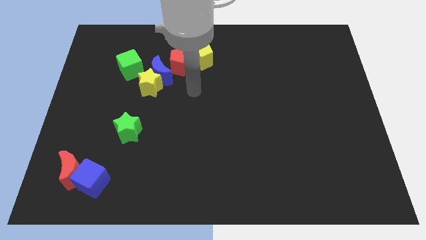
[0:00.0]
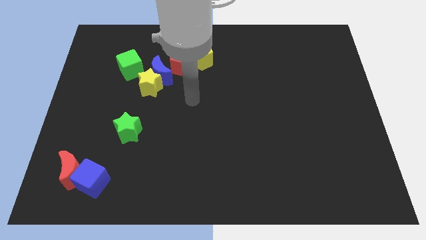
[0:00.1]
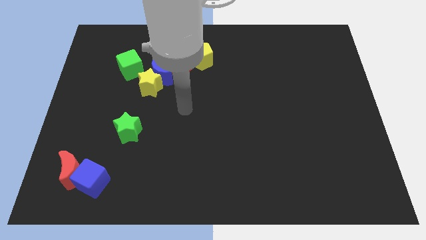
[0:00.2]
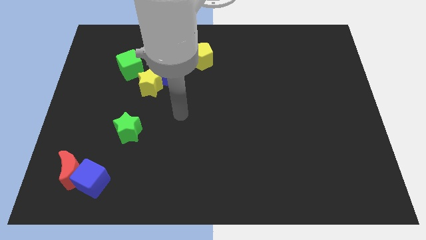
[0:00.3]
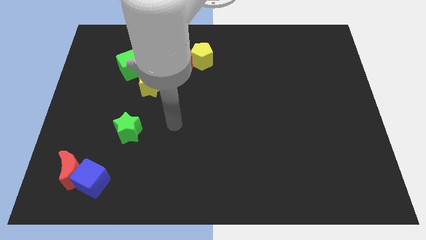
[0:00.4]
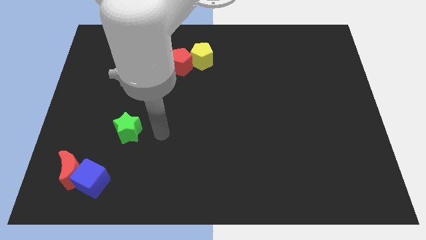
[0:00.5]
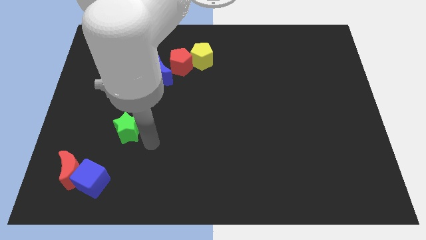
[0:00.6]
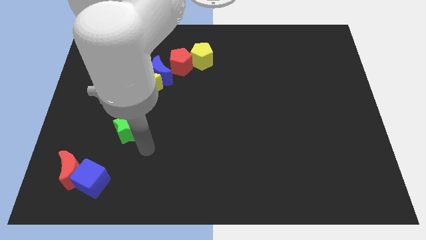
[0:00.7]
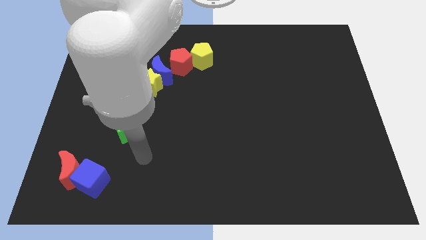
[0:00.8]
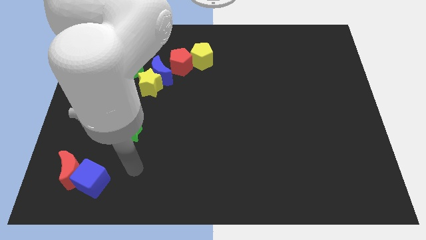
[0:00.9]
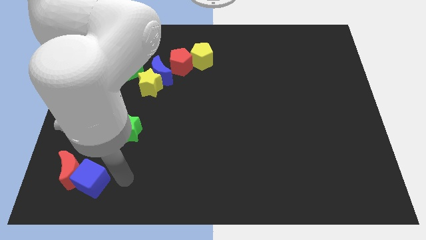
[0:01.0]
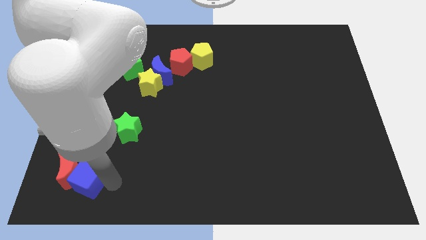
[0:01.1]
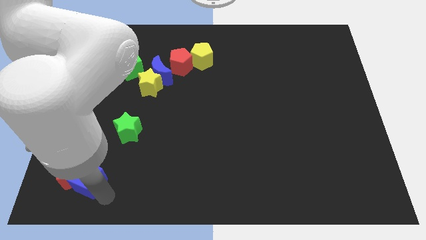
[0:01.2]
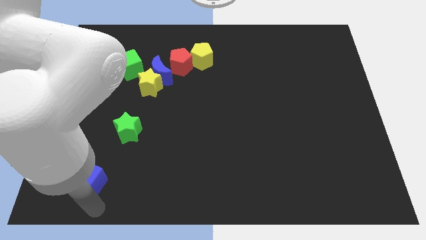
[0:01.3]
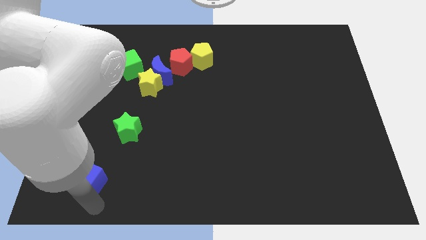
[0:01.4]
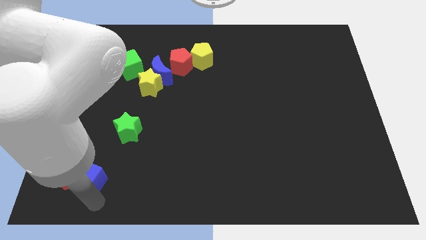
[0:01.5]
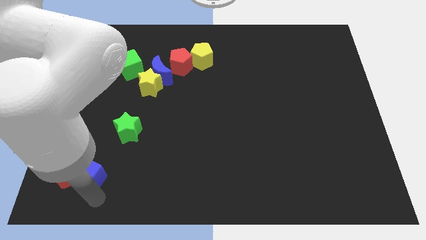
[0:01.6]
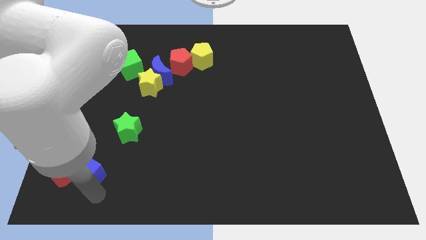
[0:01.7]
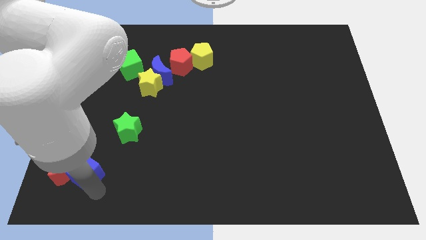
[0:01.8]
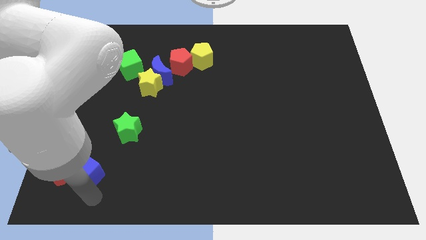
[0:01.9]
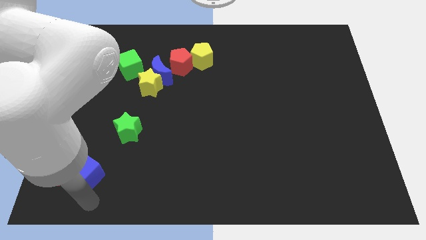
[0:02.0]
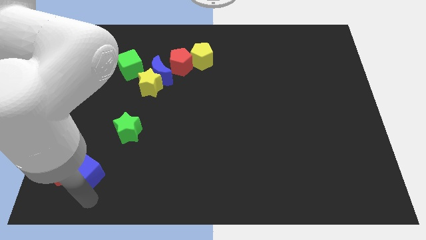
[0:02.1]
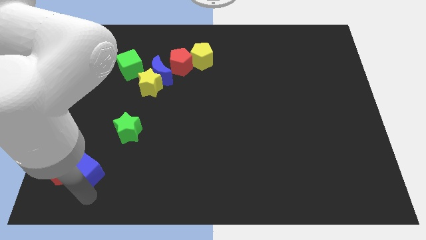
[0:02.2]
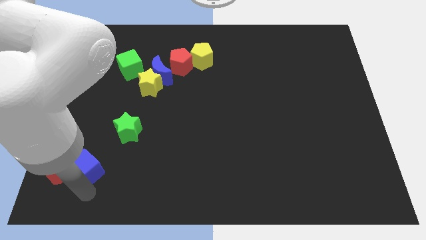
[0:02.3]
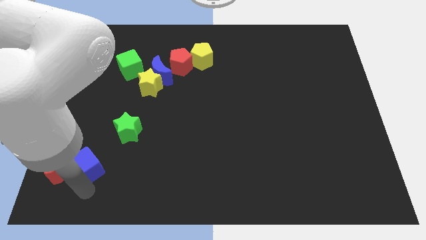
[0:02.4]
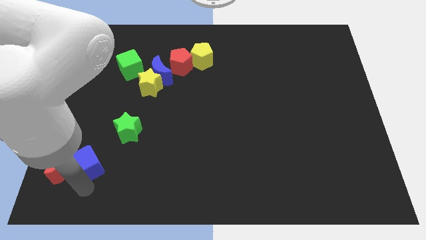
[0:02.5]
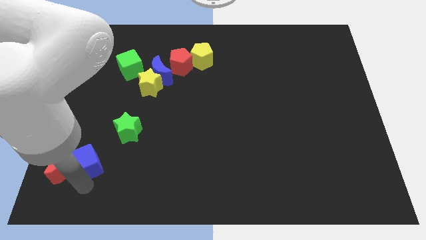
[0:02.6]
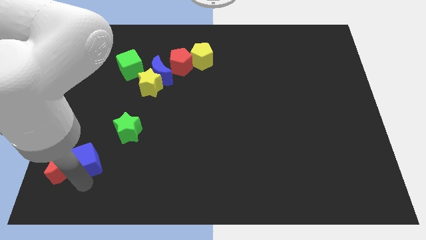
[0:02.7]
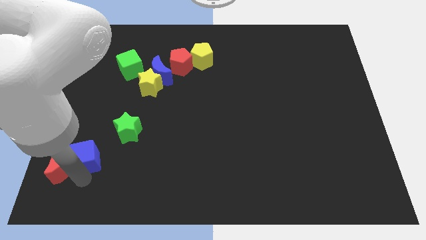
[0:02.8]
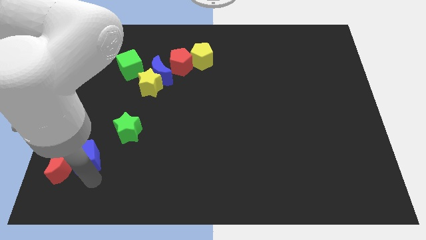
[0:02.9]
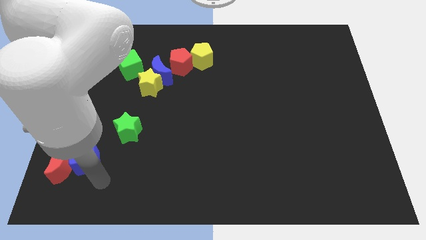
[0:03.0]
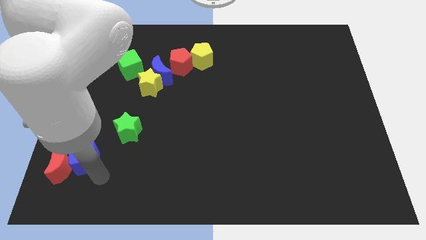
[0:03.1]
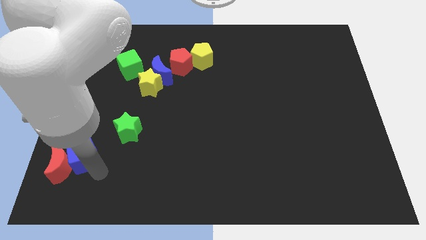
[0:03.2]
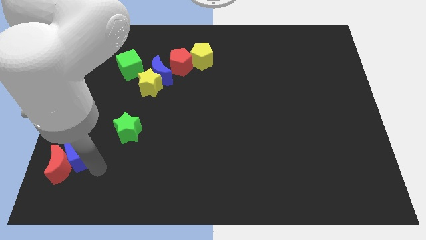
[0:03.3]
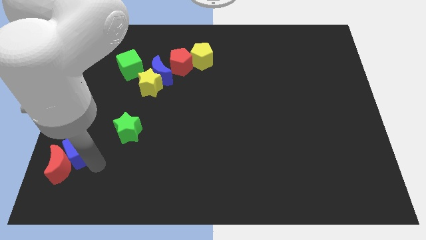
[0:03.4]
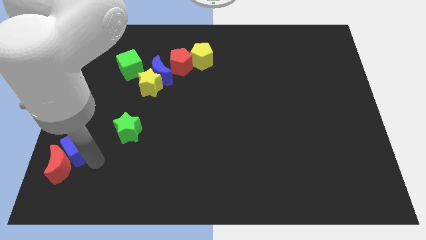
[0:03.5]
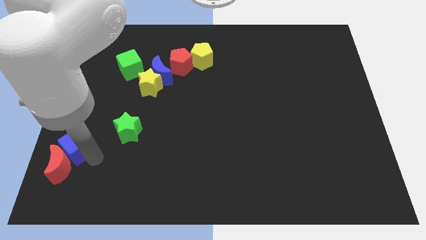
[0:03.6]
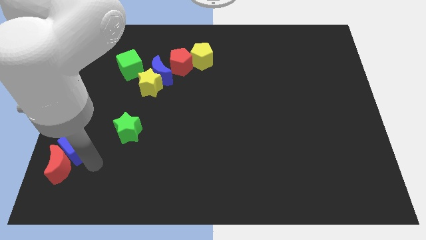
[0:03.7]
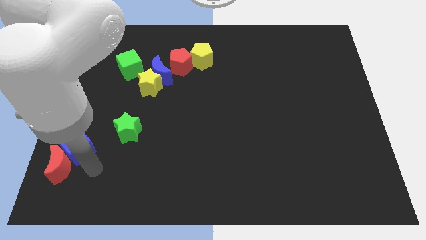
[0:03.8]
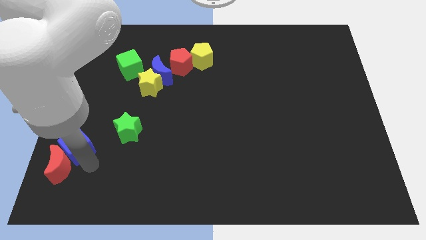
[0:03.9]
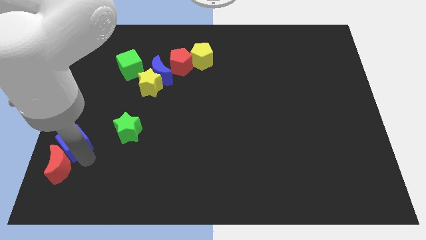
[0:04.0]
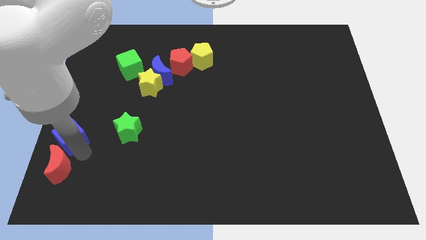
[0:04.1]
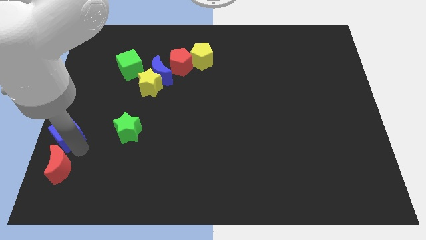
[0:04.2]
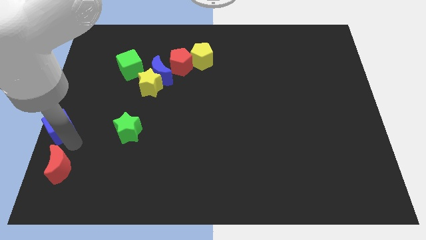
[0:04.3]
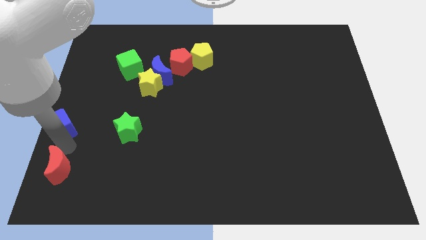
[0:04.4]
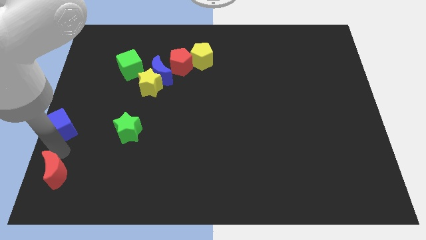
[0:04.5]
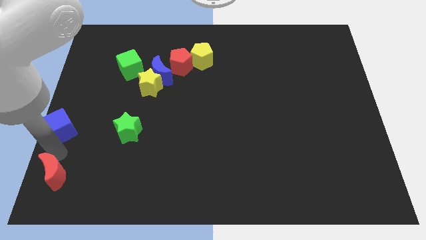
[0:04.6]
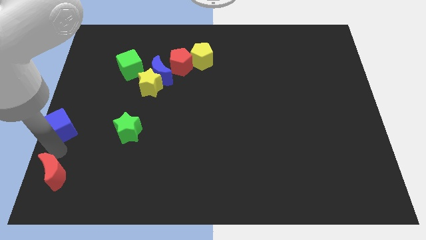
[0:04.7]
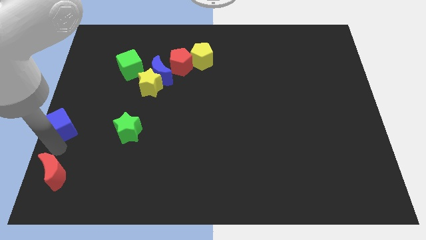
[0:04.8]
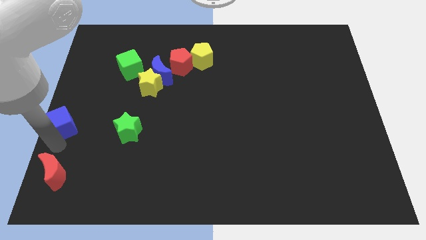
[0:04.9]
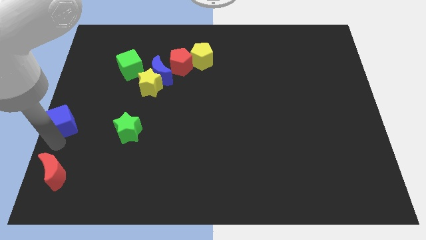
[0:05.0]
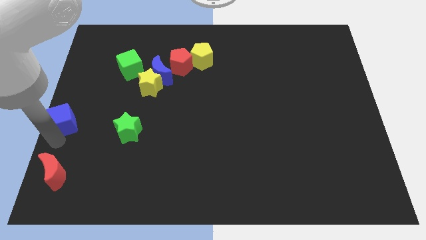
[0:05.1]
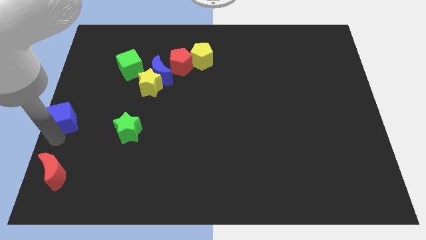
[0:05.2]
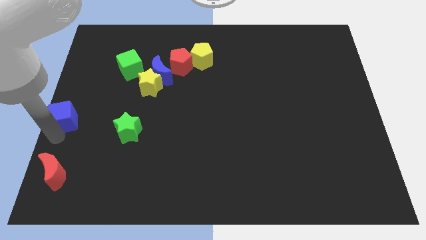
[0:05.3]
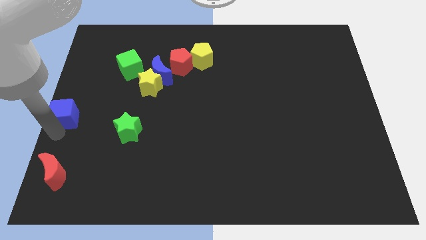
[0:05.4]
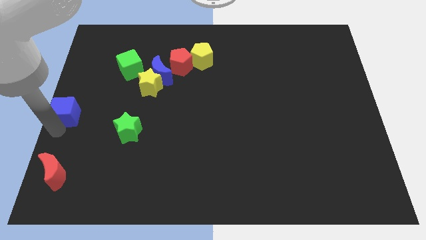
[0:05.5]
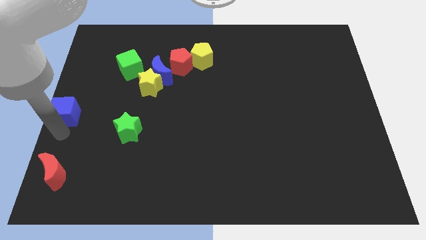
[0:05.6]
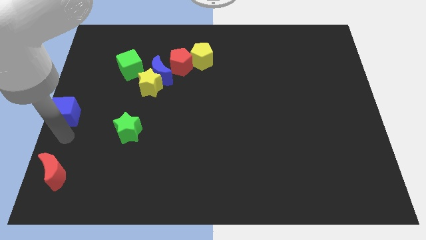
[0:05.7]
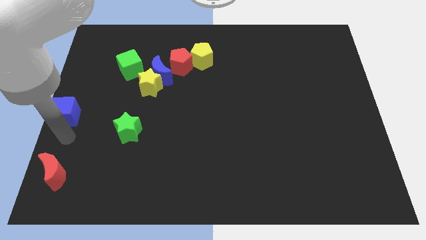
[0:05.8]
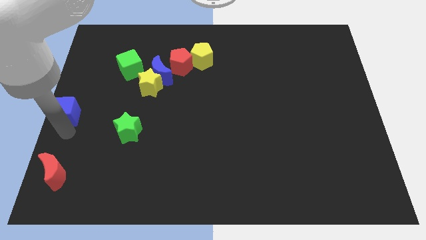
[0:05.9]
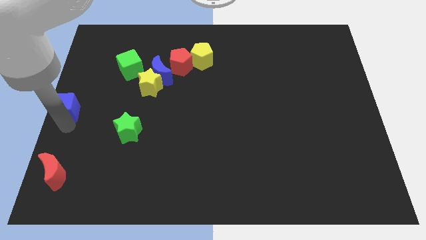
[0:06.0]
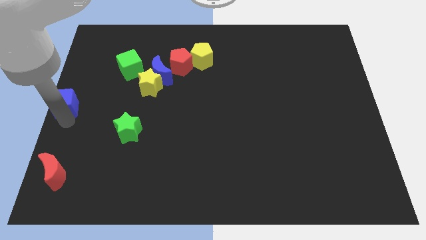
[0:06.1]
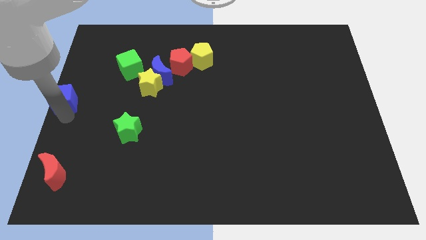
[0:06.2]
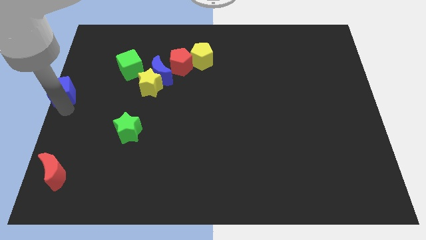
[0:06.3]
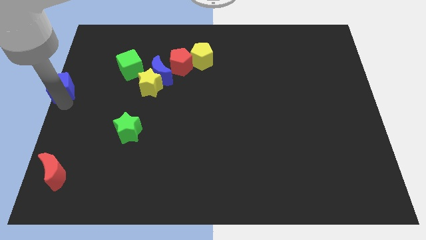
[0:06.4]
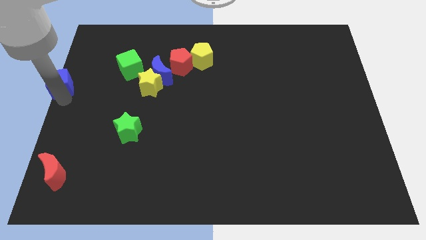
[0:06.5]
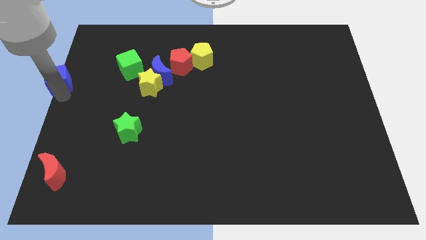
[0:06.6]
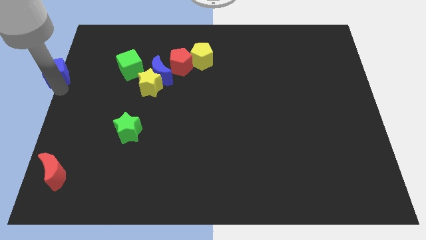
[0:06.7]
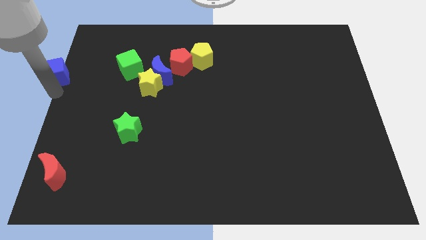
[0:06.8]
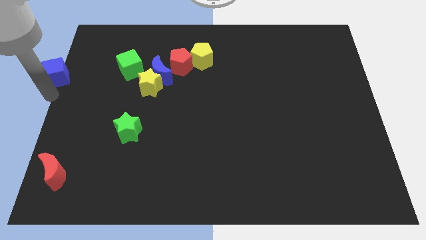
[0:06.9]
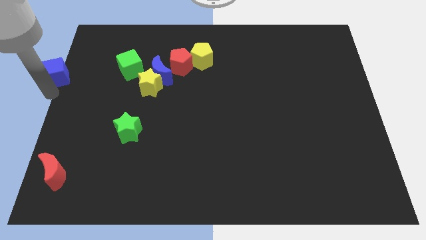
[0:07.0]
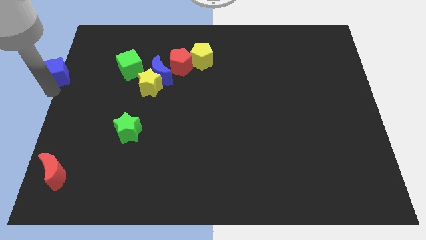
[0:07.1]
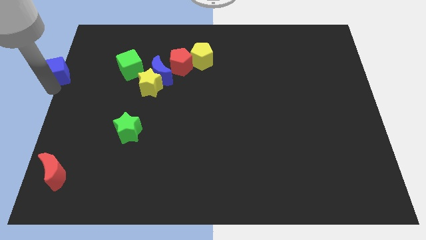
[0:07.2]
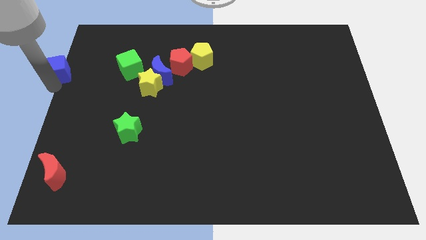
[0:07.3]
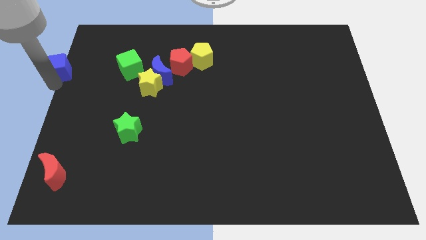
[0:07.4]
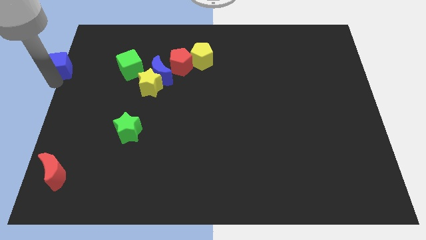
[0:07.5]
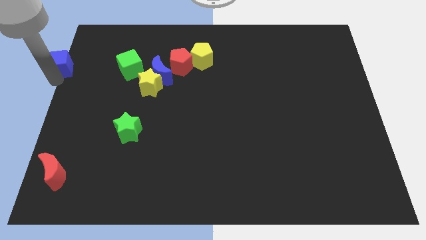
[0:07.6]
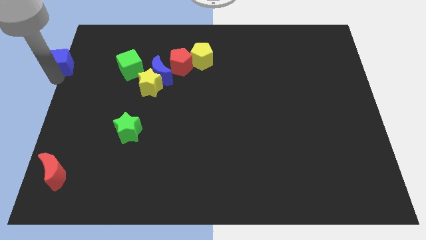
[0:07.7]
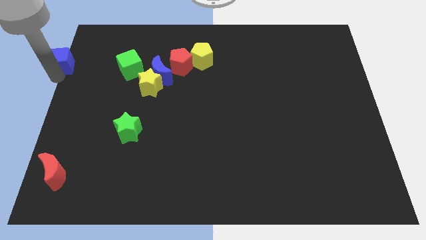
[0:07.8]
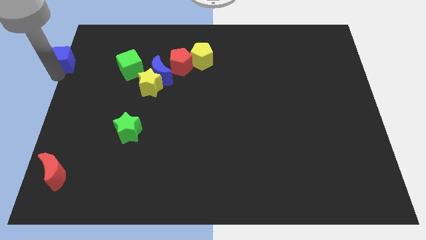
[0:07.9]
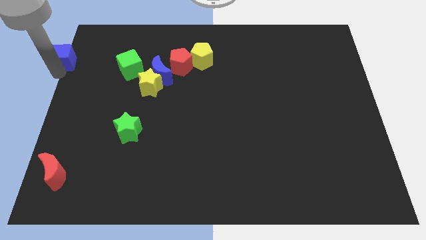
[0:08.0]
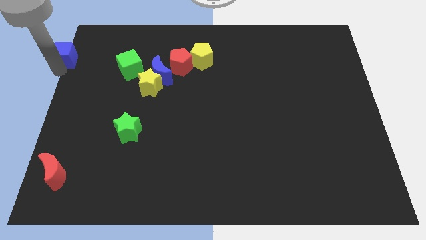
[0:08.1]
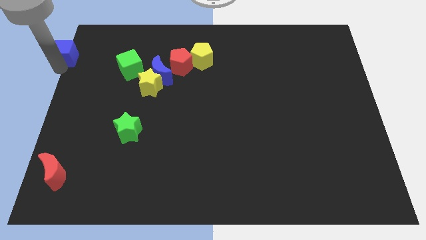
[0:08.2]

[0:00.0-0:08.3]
push the blue cube to the upper left corner
